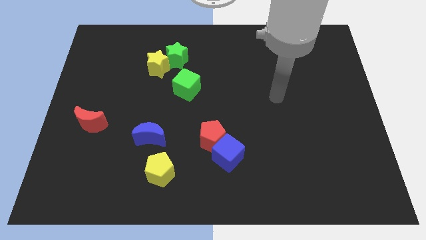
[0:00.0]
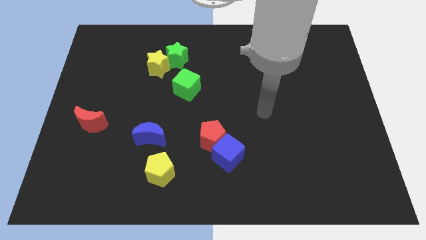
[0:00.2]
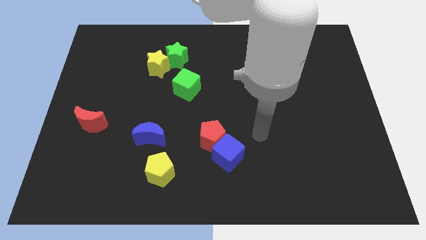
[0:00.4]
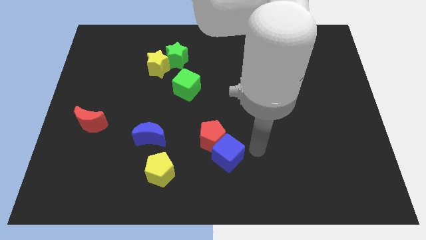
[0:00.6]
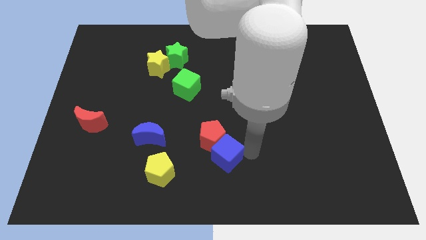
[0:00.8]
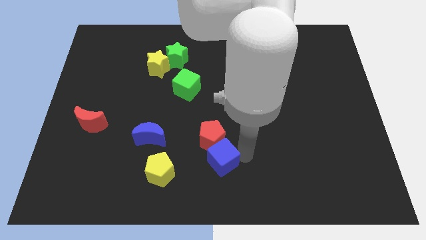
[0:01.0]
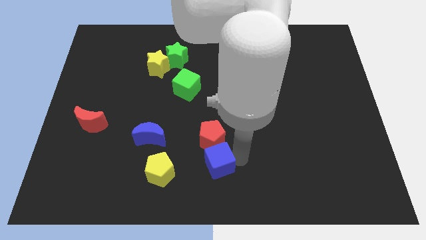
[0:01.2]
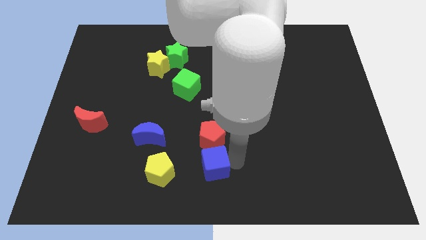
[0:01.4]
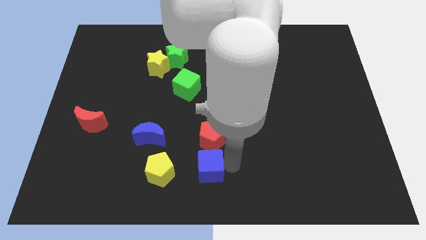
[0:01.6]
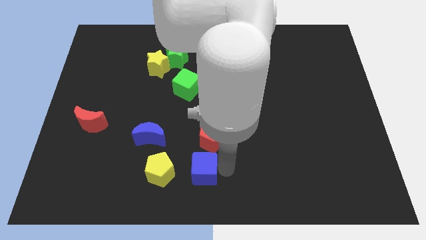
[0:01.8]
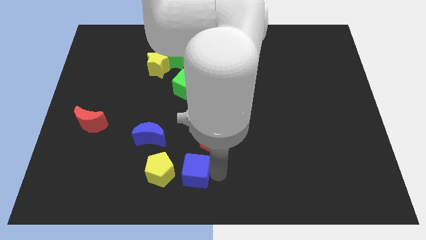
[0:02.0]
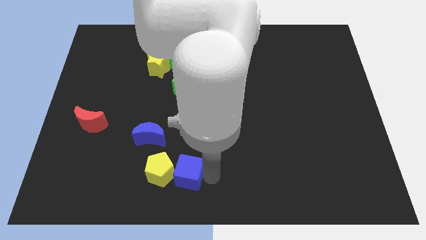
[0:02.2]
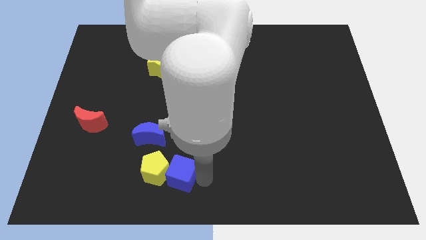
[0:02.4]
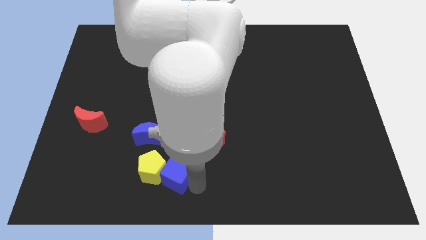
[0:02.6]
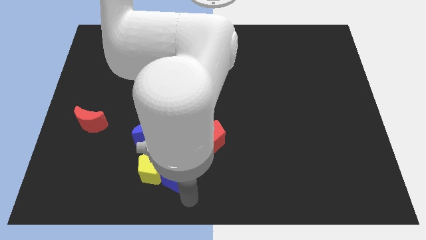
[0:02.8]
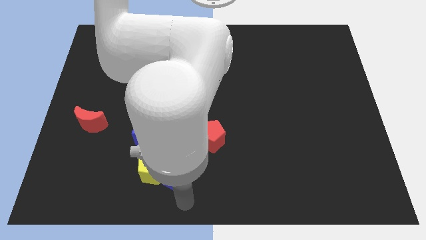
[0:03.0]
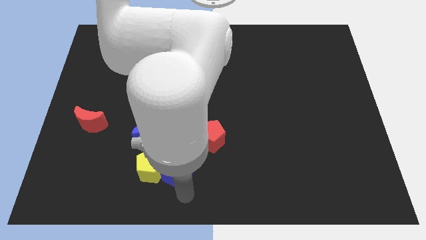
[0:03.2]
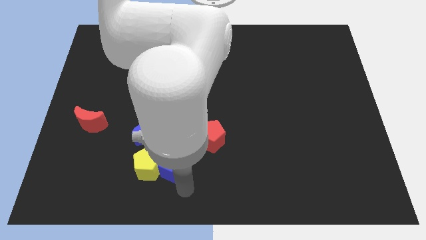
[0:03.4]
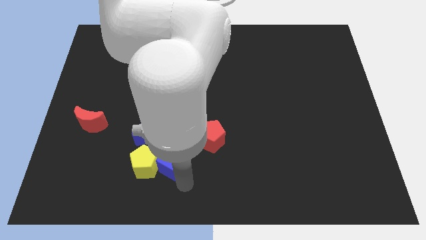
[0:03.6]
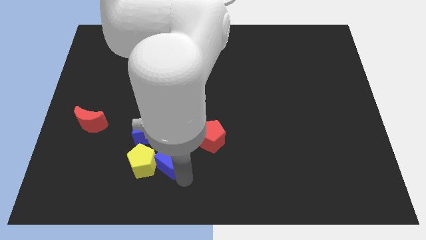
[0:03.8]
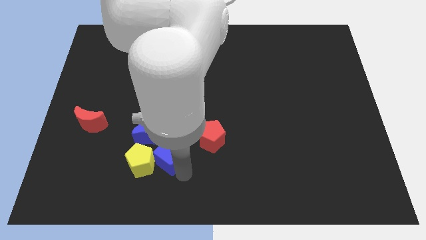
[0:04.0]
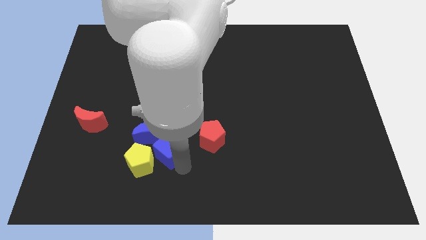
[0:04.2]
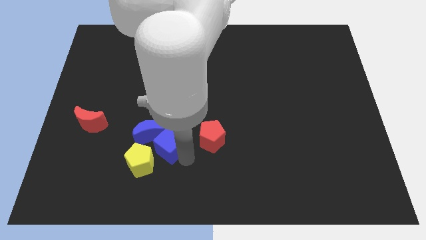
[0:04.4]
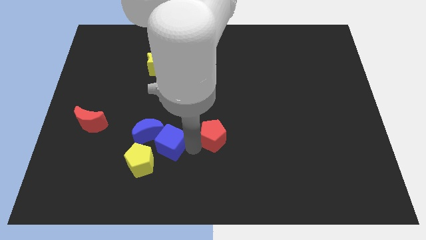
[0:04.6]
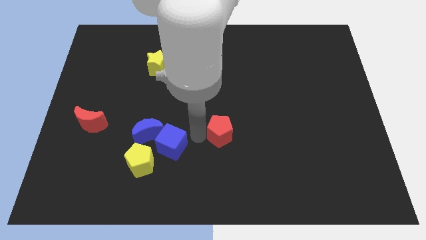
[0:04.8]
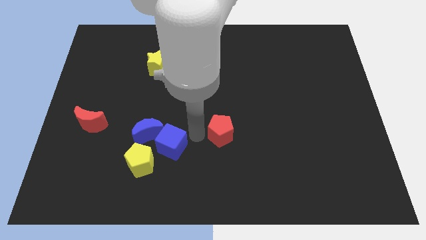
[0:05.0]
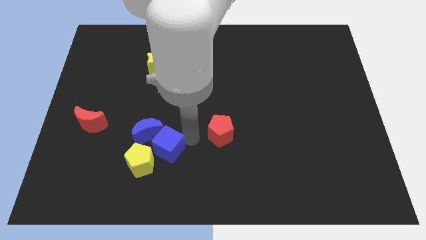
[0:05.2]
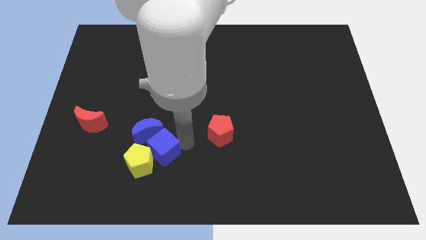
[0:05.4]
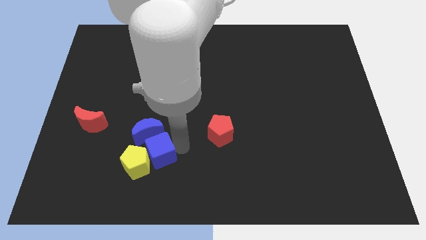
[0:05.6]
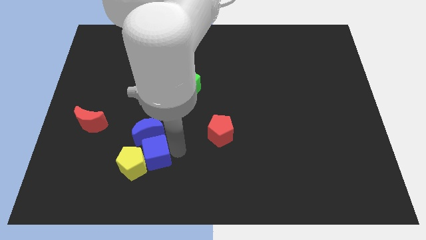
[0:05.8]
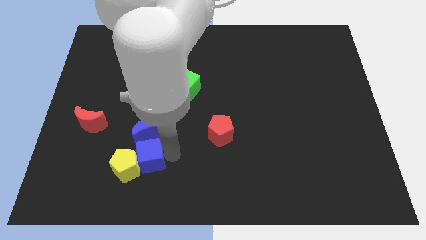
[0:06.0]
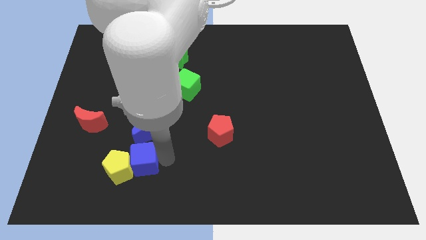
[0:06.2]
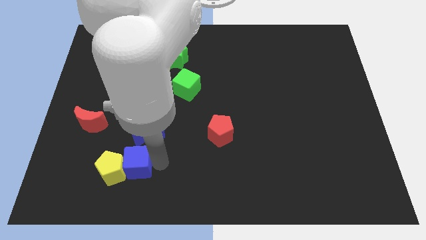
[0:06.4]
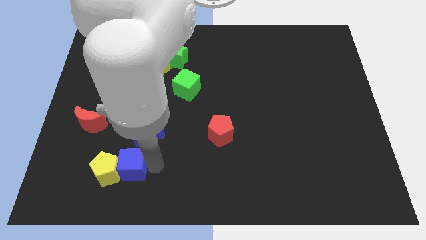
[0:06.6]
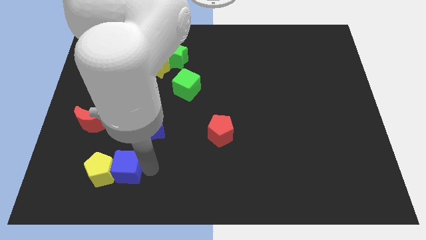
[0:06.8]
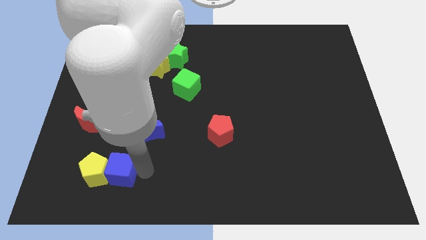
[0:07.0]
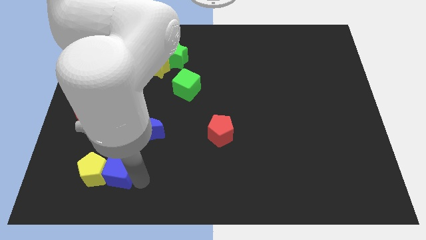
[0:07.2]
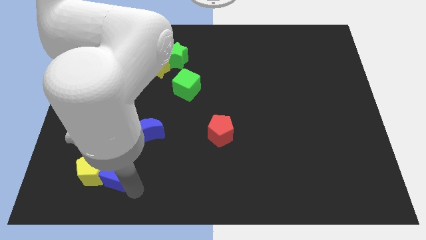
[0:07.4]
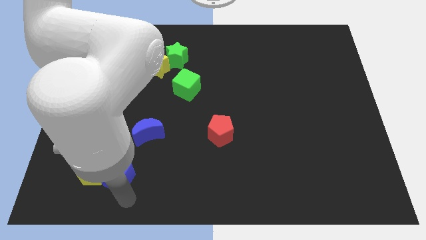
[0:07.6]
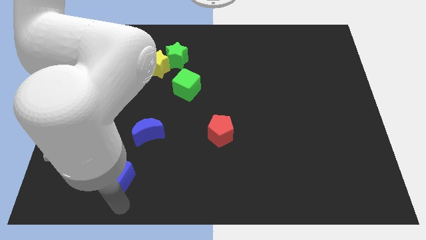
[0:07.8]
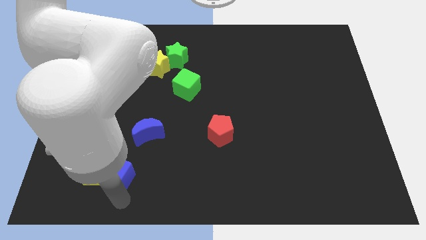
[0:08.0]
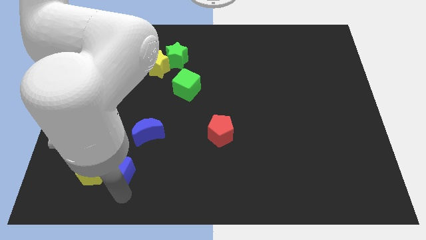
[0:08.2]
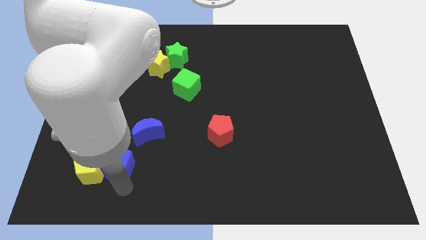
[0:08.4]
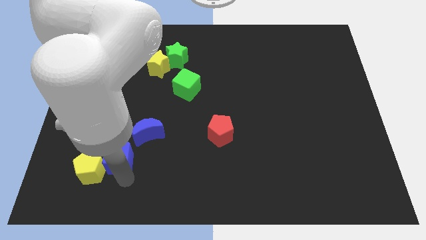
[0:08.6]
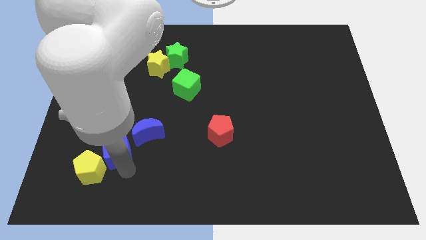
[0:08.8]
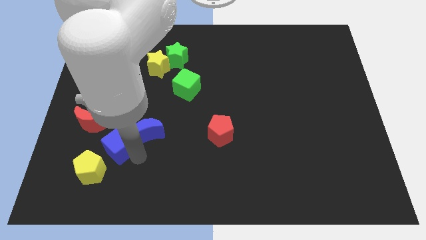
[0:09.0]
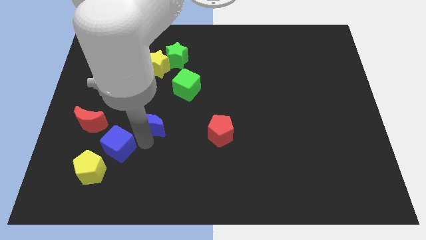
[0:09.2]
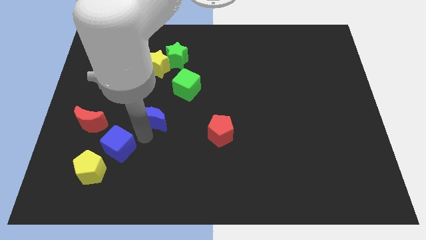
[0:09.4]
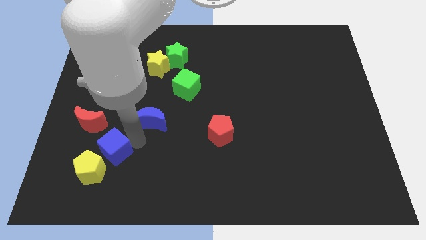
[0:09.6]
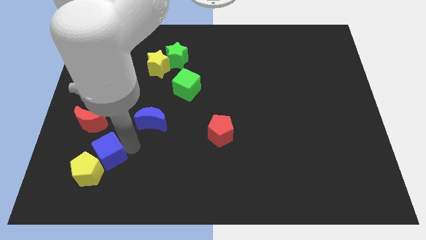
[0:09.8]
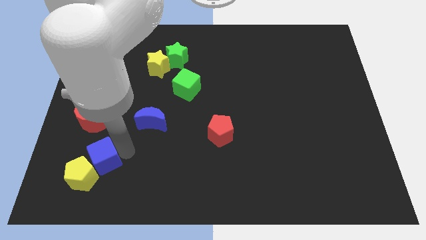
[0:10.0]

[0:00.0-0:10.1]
put the blue cube to the bottom of the red moon

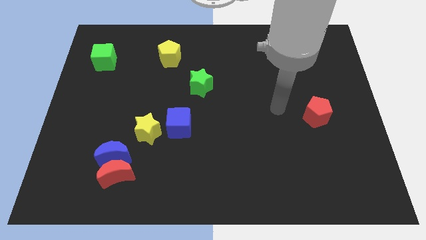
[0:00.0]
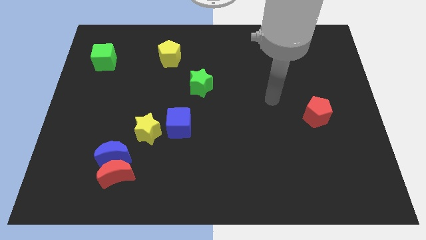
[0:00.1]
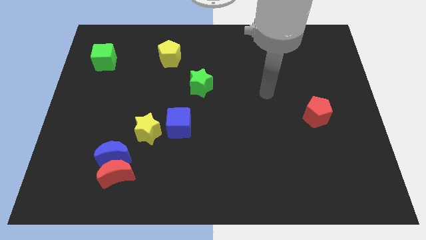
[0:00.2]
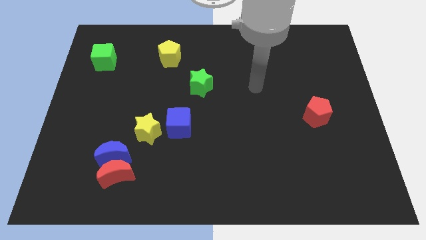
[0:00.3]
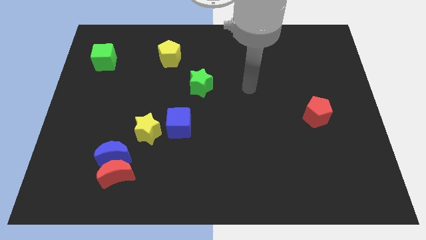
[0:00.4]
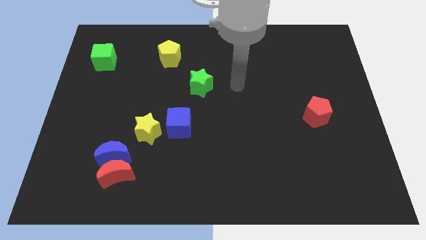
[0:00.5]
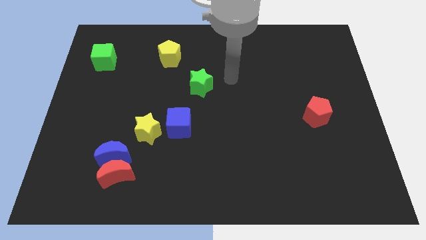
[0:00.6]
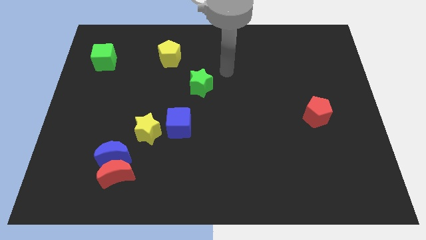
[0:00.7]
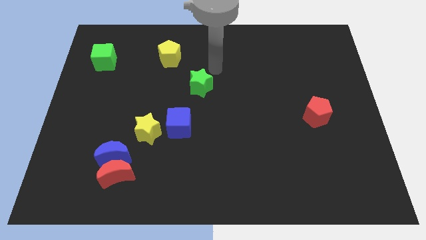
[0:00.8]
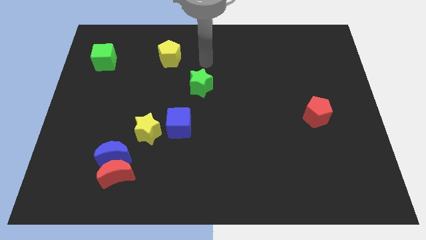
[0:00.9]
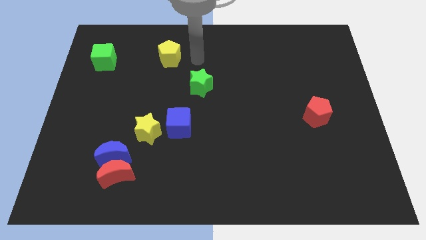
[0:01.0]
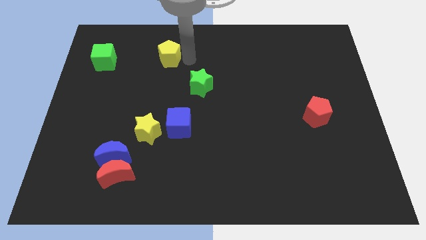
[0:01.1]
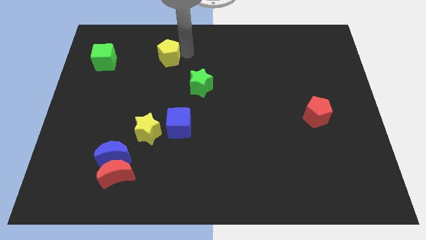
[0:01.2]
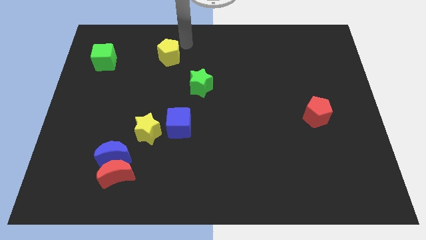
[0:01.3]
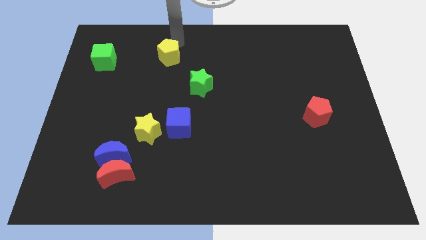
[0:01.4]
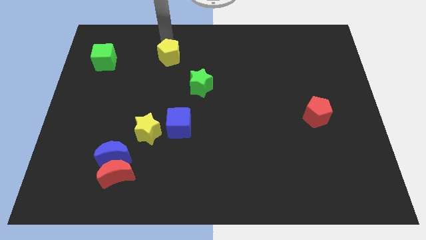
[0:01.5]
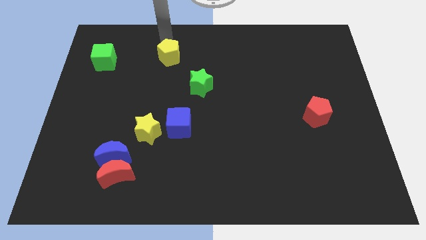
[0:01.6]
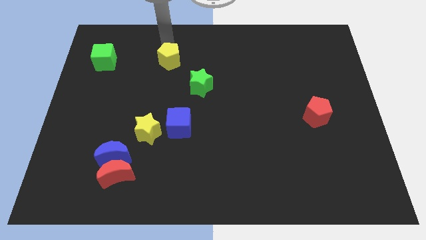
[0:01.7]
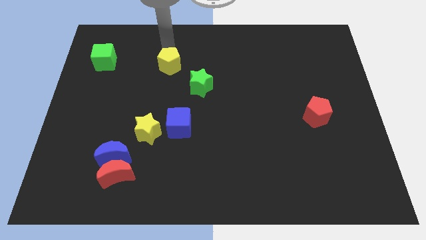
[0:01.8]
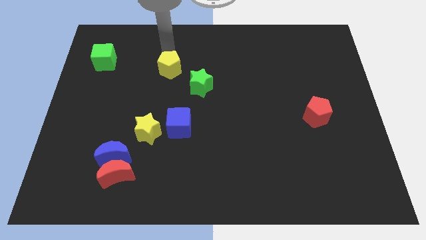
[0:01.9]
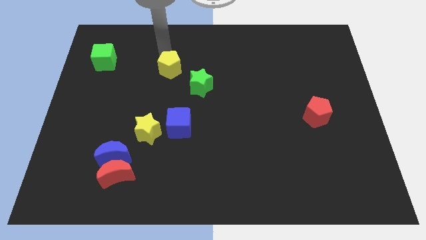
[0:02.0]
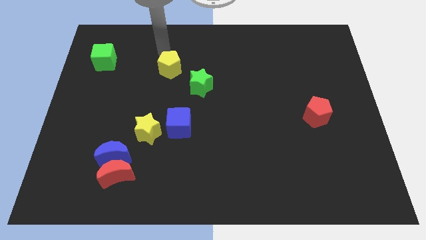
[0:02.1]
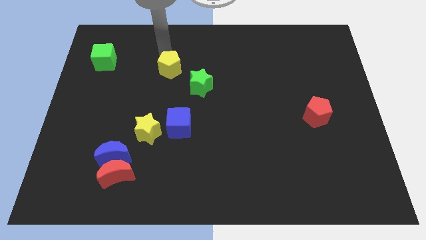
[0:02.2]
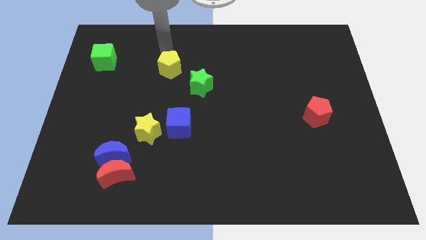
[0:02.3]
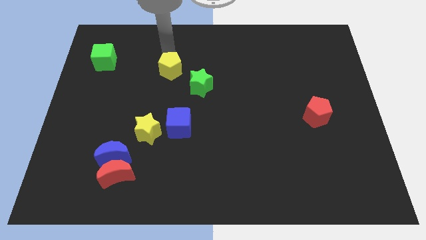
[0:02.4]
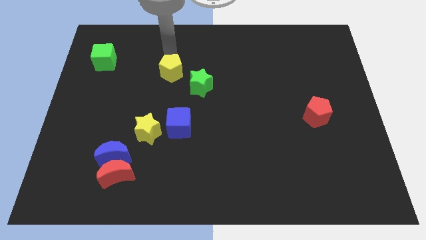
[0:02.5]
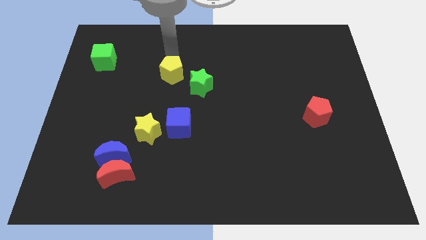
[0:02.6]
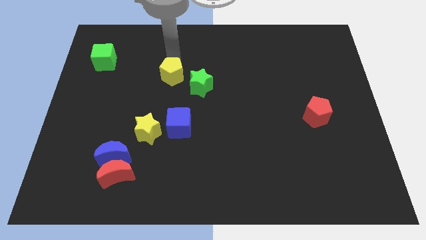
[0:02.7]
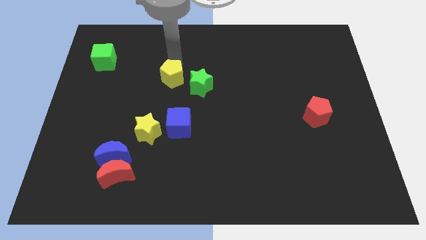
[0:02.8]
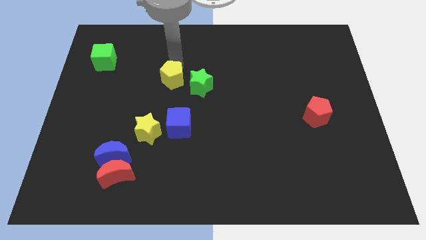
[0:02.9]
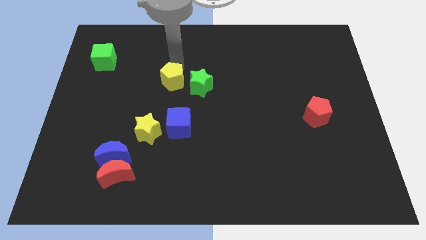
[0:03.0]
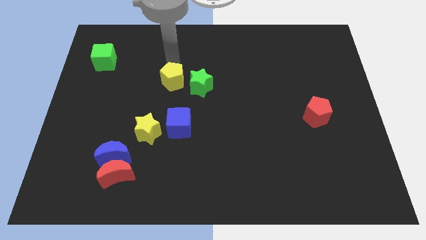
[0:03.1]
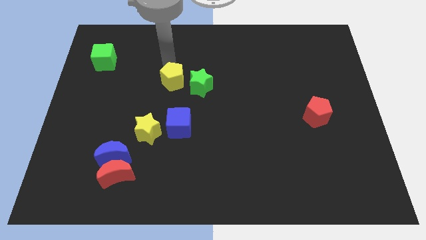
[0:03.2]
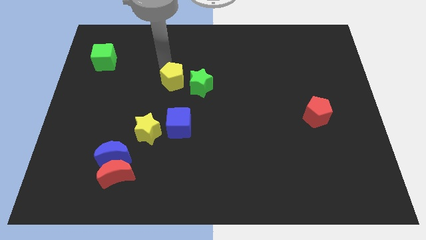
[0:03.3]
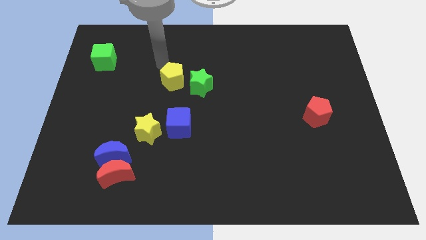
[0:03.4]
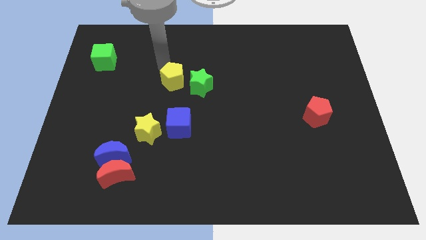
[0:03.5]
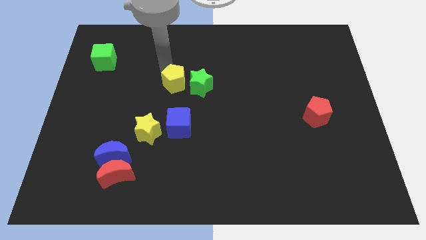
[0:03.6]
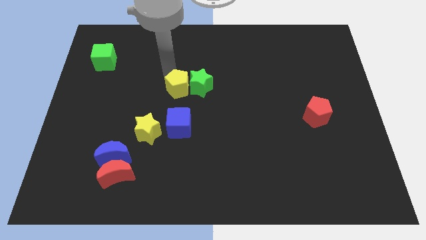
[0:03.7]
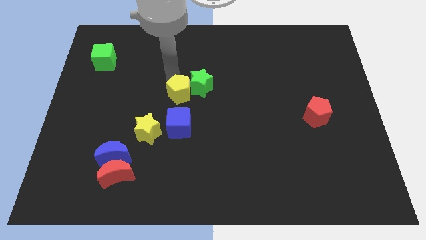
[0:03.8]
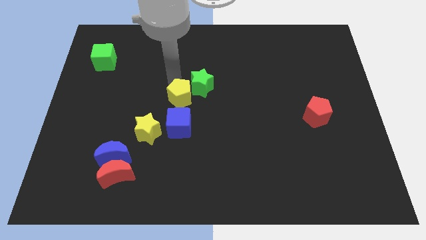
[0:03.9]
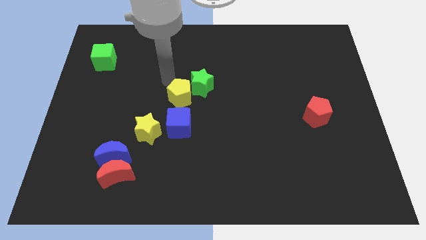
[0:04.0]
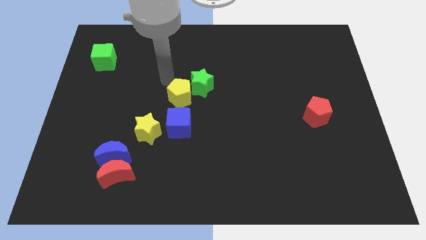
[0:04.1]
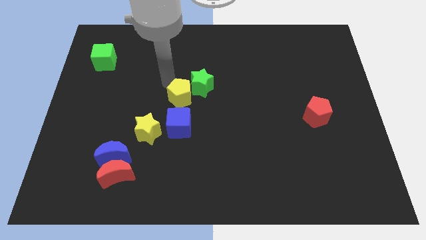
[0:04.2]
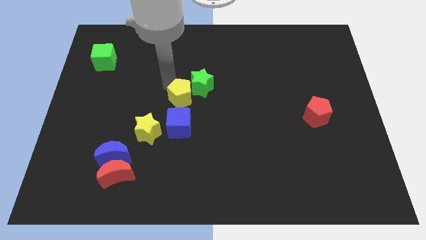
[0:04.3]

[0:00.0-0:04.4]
push the yellow pentagon below the green star
